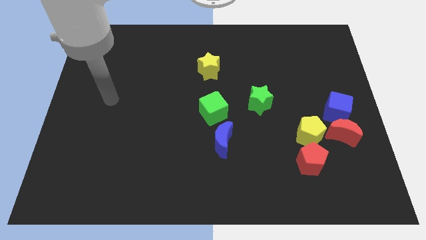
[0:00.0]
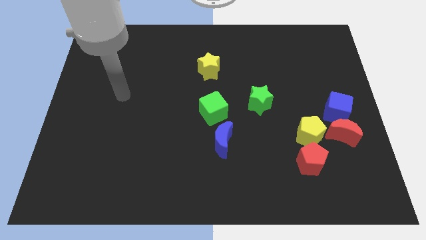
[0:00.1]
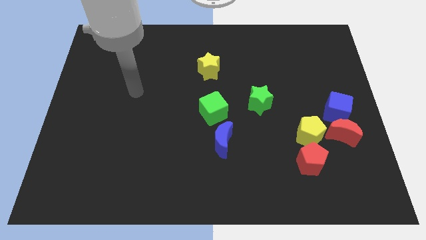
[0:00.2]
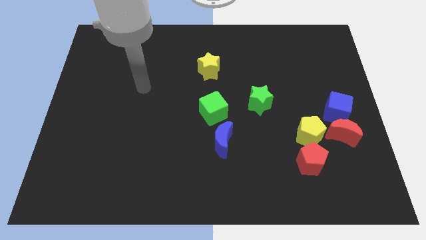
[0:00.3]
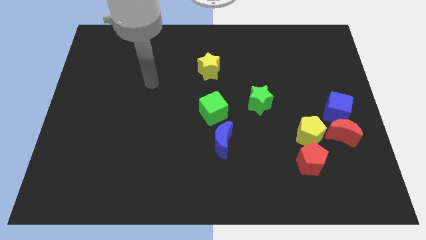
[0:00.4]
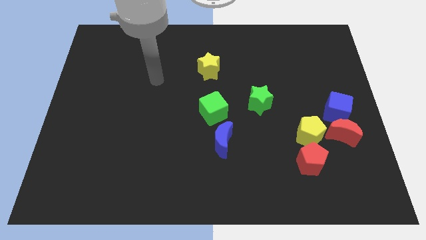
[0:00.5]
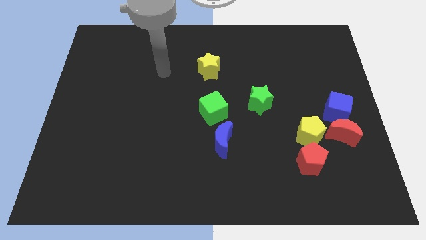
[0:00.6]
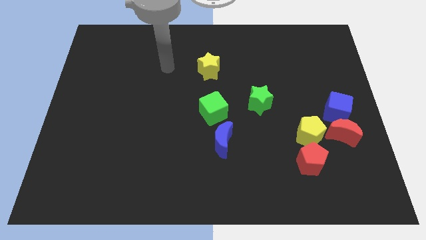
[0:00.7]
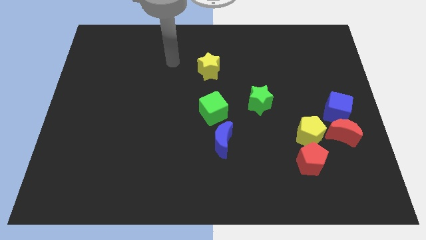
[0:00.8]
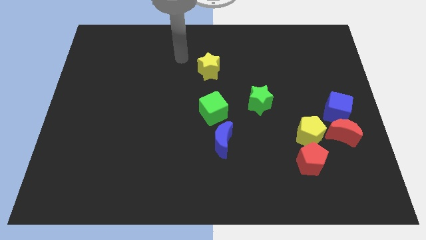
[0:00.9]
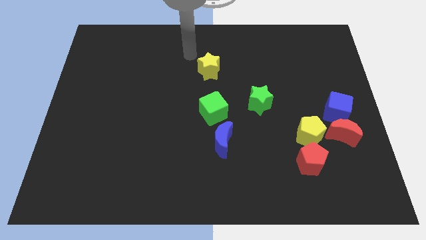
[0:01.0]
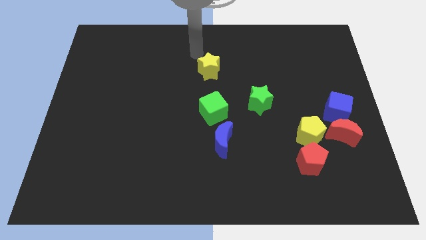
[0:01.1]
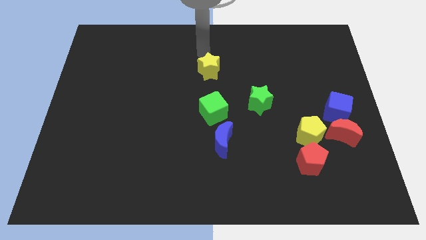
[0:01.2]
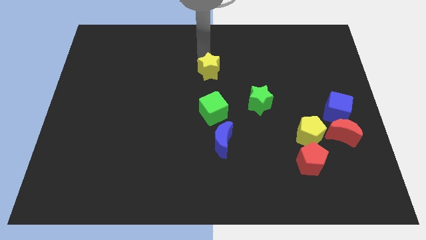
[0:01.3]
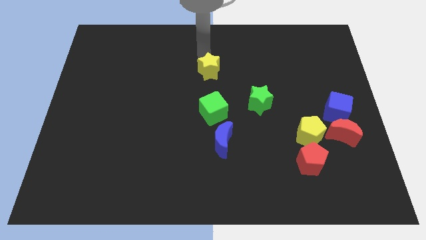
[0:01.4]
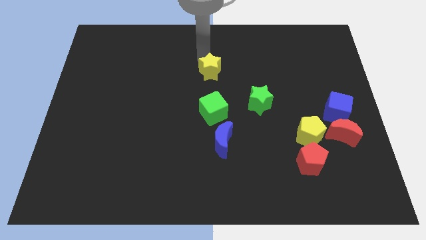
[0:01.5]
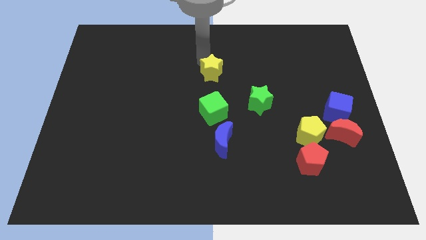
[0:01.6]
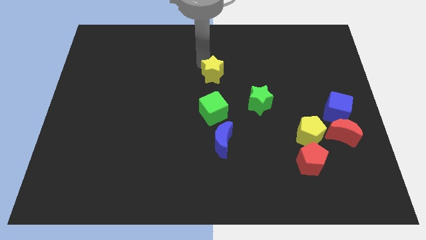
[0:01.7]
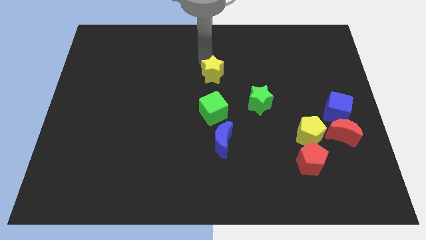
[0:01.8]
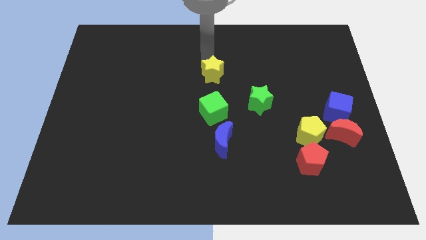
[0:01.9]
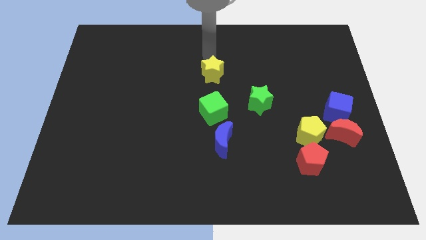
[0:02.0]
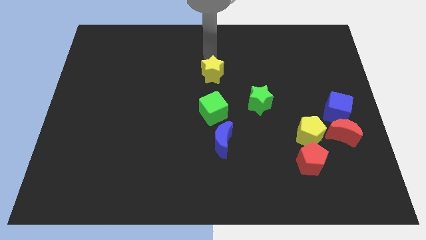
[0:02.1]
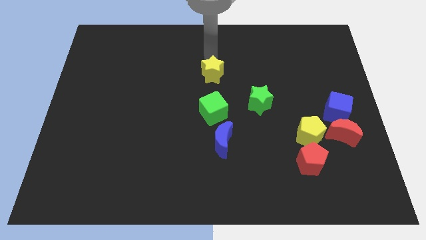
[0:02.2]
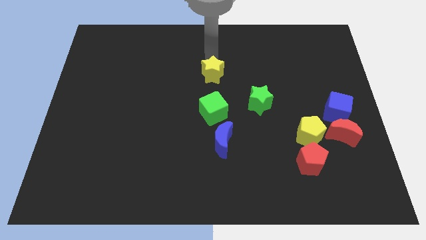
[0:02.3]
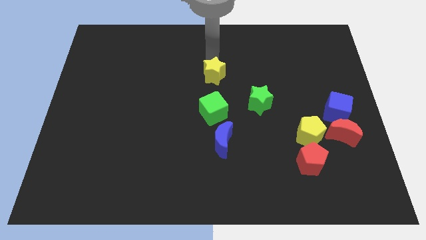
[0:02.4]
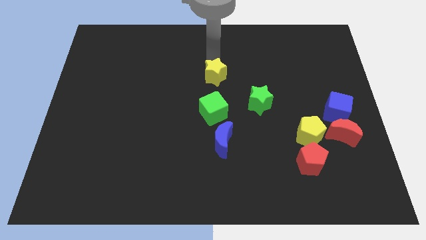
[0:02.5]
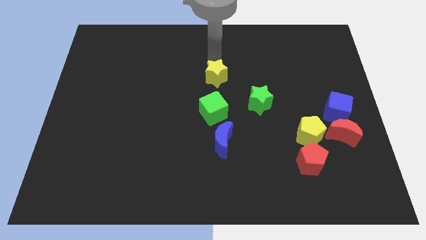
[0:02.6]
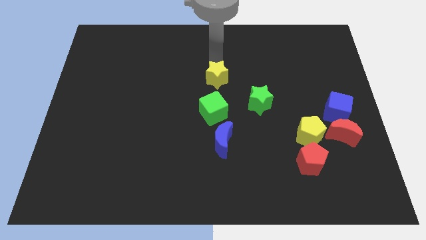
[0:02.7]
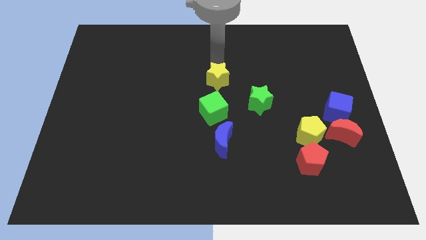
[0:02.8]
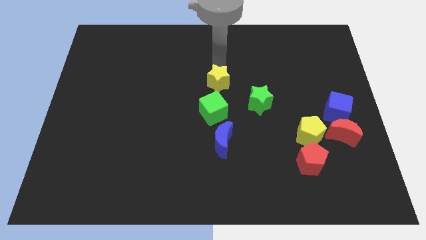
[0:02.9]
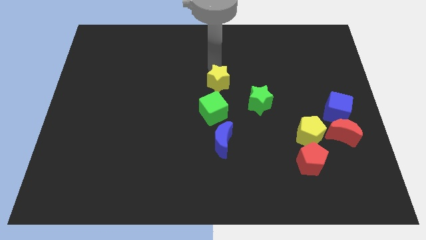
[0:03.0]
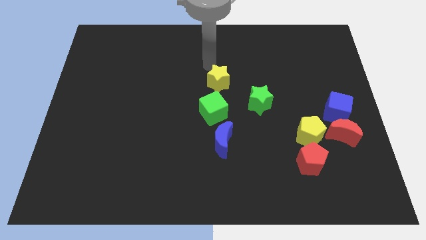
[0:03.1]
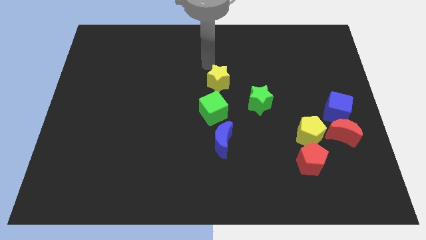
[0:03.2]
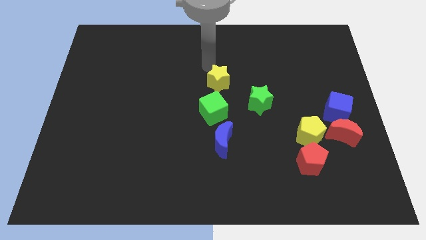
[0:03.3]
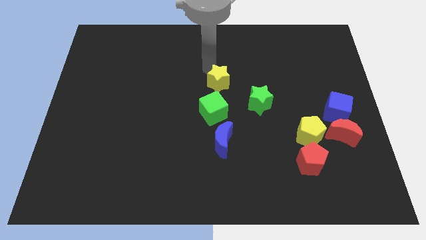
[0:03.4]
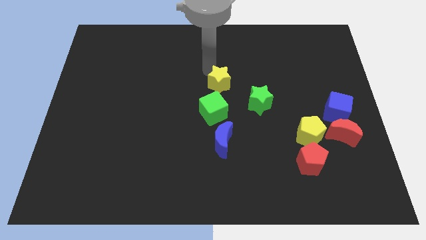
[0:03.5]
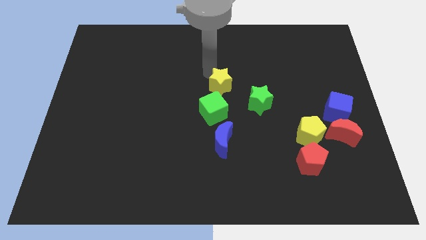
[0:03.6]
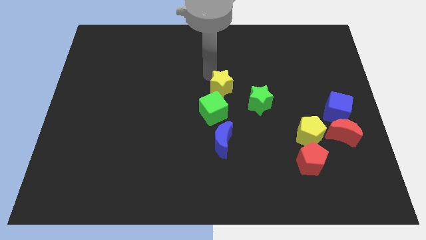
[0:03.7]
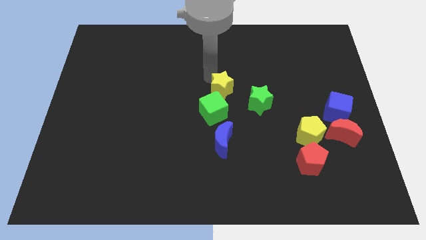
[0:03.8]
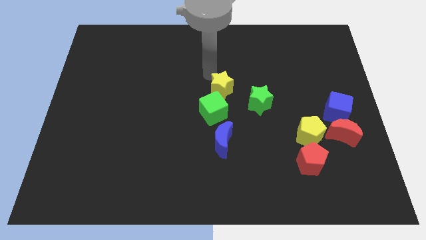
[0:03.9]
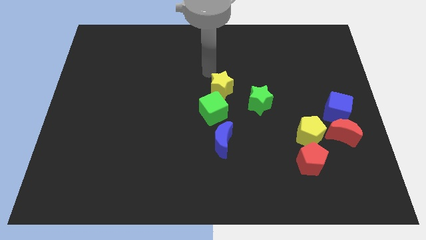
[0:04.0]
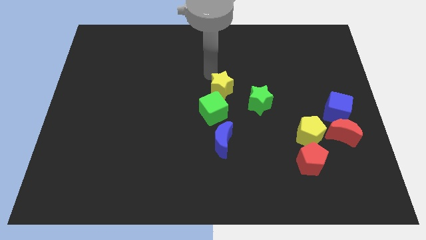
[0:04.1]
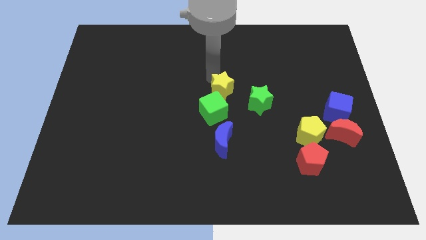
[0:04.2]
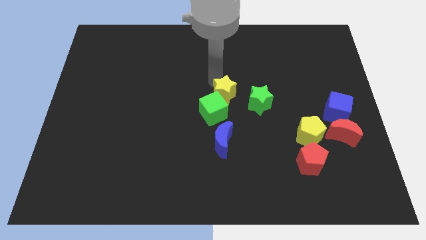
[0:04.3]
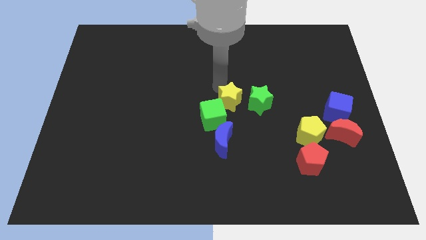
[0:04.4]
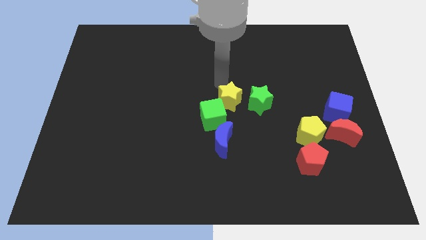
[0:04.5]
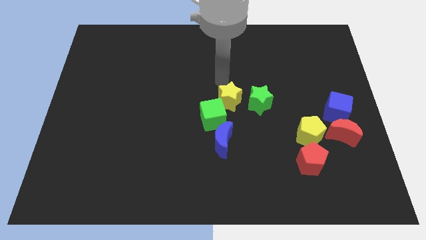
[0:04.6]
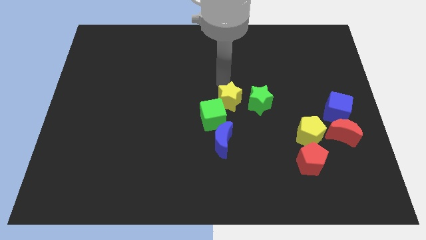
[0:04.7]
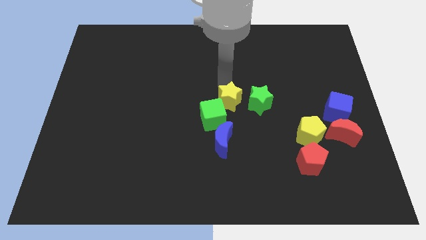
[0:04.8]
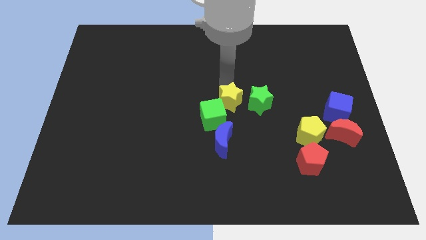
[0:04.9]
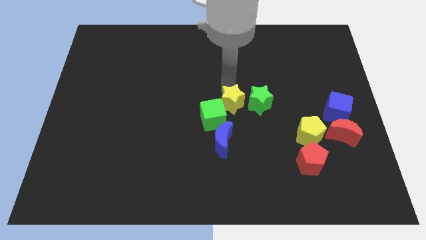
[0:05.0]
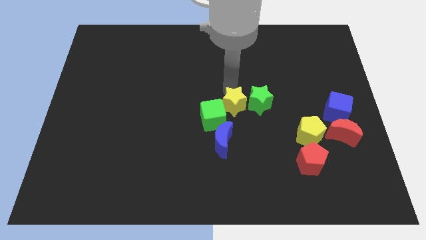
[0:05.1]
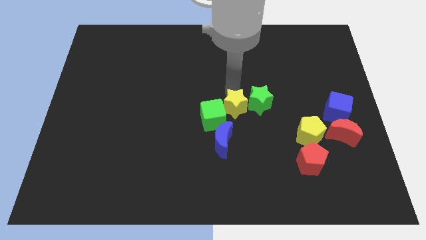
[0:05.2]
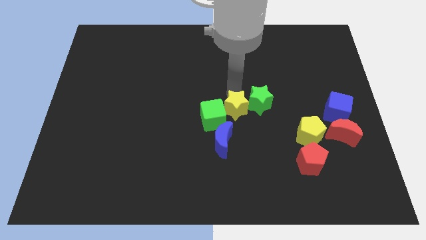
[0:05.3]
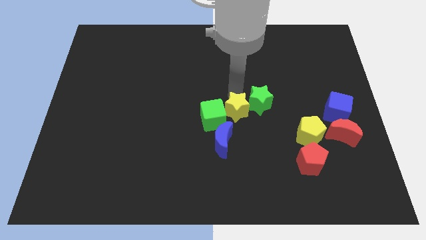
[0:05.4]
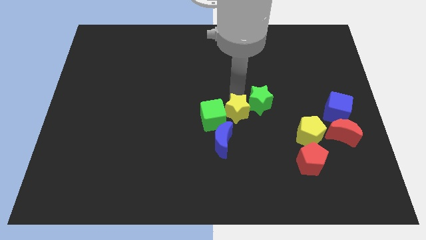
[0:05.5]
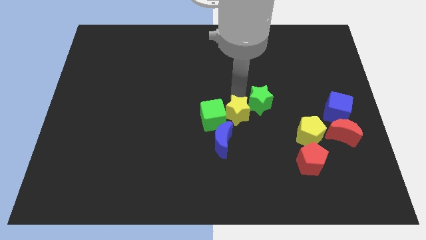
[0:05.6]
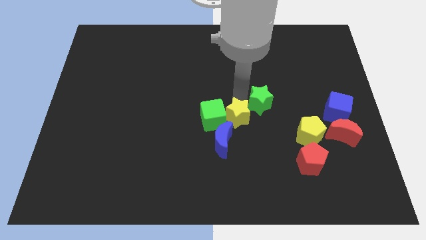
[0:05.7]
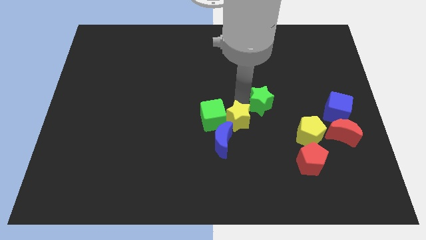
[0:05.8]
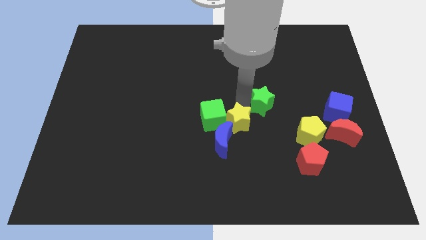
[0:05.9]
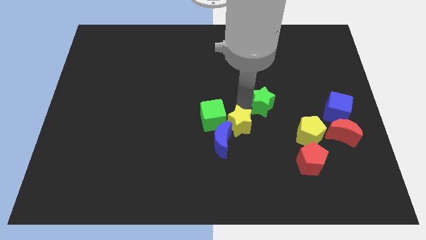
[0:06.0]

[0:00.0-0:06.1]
slide the yellow star towards the blue moon

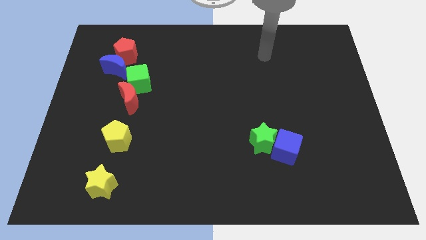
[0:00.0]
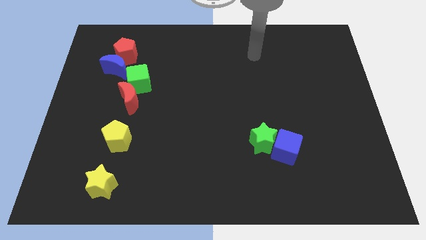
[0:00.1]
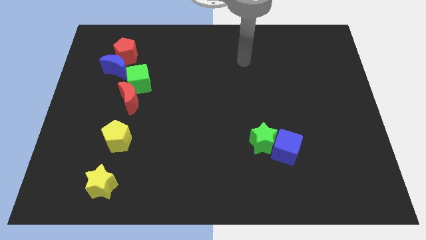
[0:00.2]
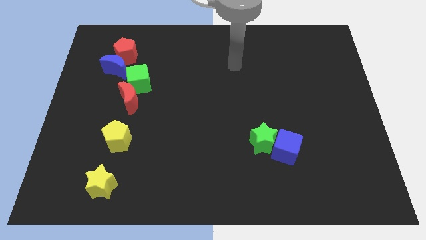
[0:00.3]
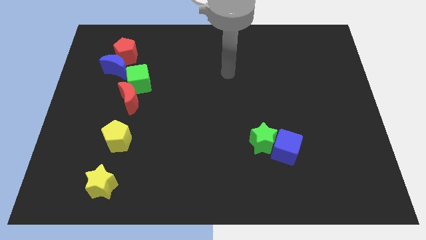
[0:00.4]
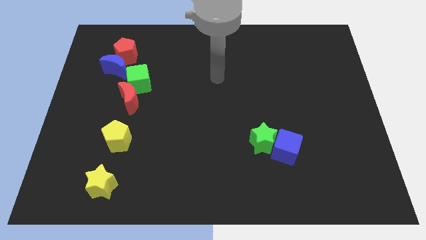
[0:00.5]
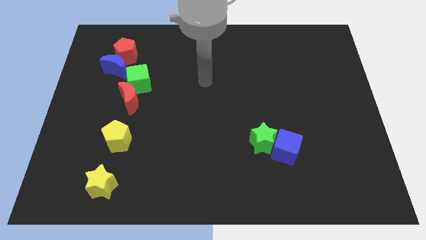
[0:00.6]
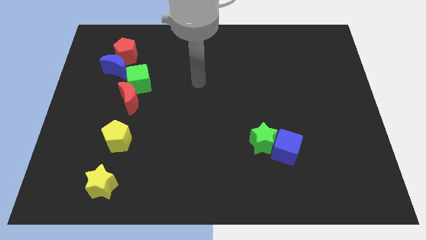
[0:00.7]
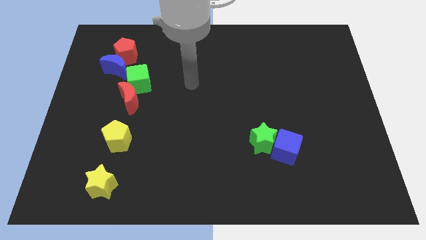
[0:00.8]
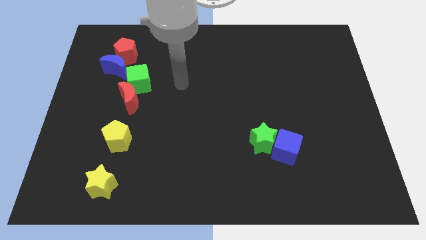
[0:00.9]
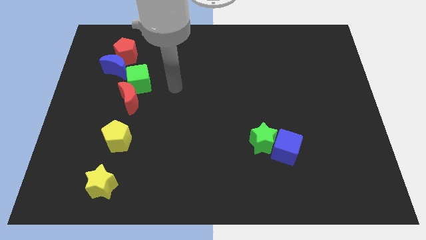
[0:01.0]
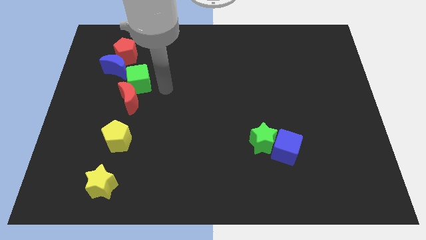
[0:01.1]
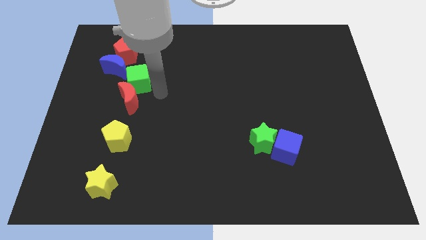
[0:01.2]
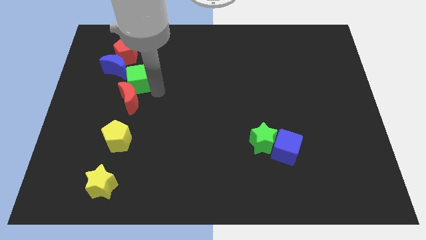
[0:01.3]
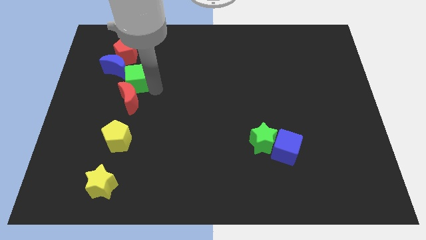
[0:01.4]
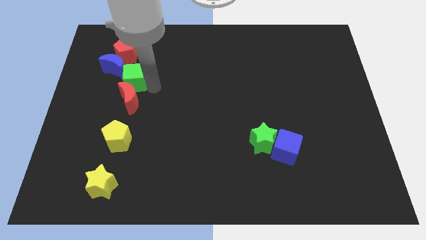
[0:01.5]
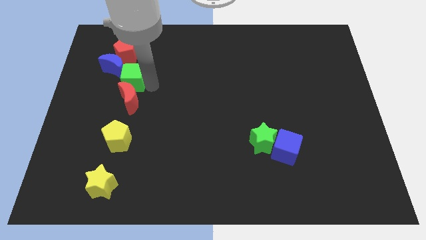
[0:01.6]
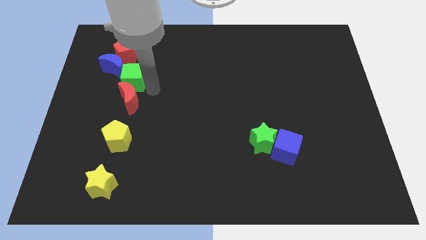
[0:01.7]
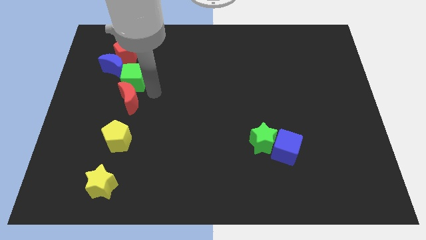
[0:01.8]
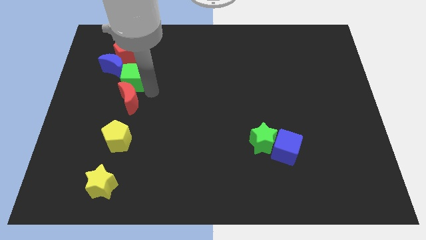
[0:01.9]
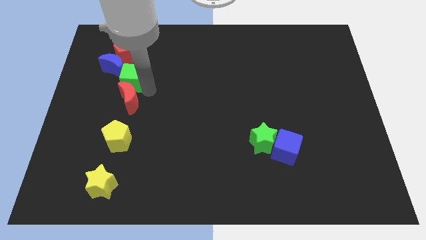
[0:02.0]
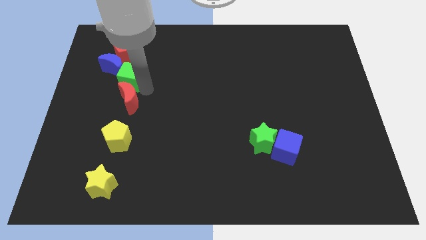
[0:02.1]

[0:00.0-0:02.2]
slide the green cube towards the blue moon
